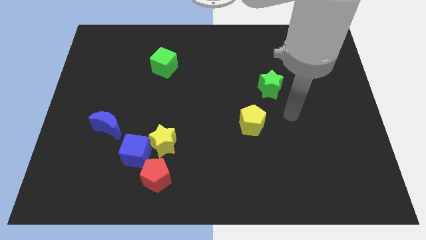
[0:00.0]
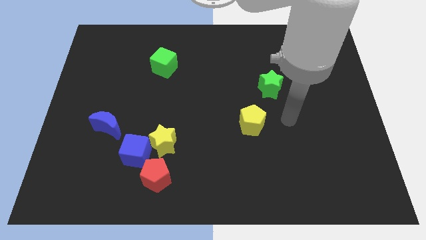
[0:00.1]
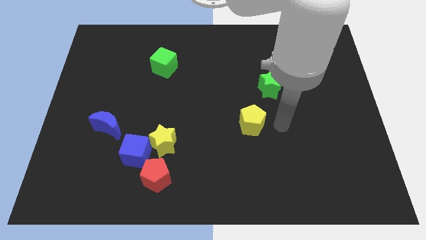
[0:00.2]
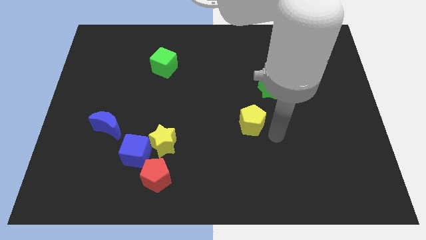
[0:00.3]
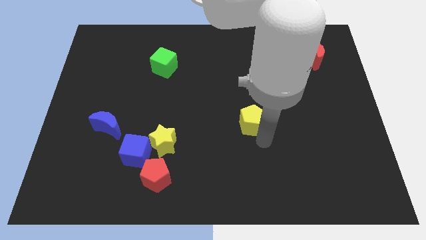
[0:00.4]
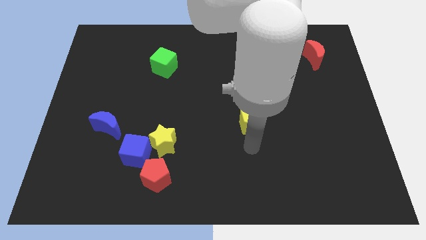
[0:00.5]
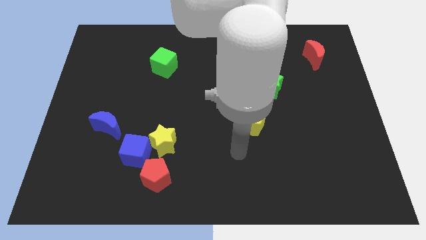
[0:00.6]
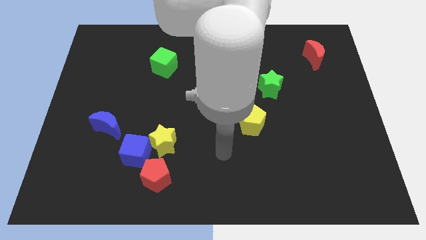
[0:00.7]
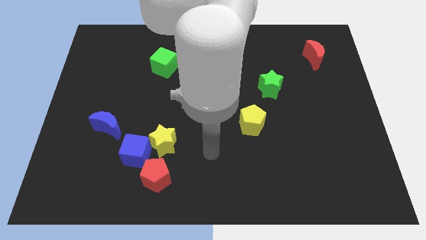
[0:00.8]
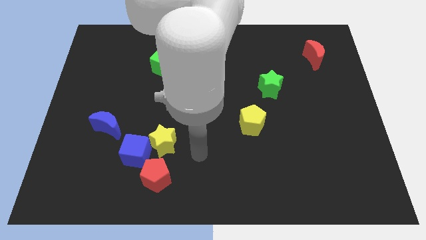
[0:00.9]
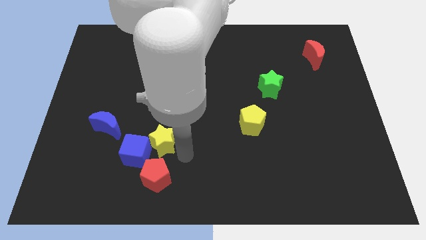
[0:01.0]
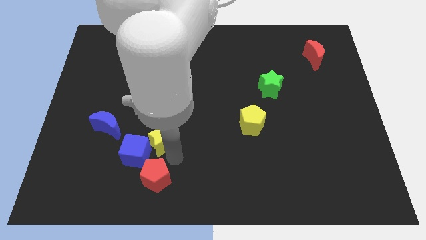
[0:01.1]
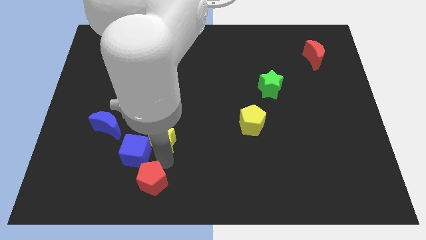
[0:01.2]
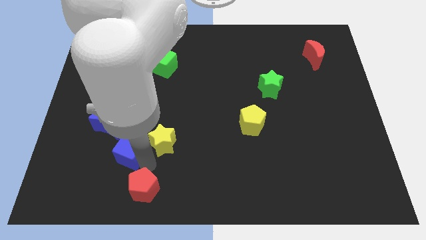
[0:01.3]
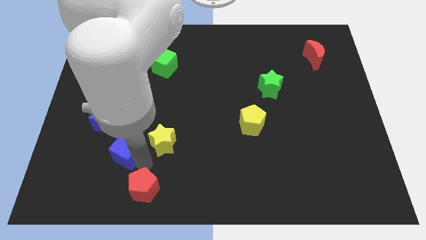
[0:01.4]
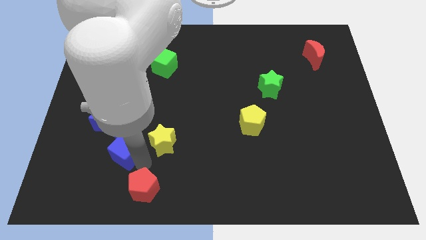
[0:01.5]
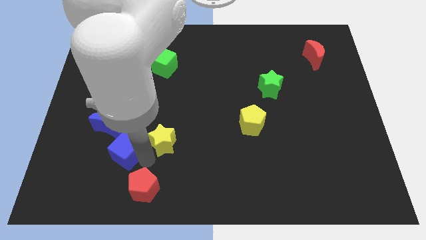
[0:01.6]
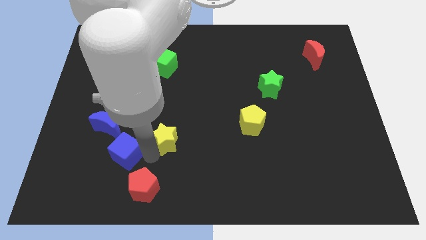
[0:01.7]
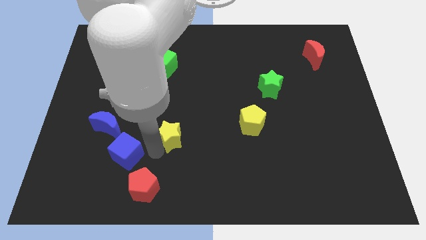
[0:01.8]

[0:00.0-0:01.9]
separate the yellow star from the blue cube and red pentagon

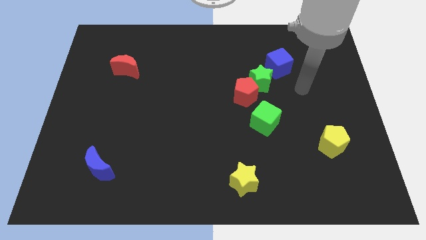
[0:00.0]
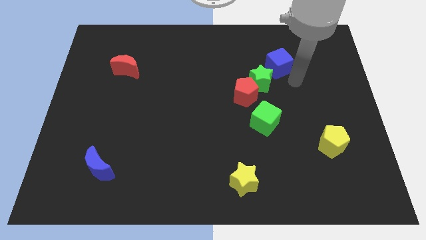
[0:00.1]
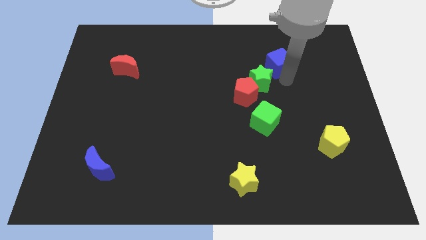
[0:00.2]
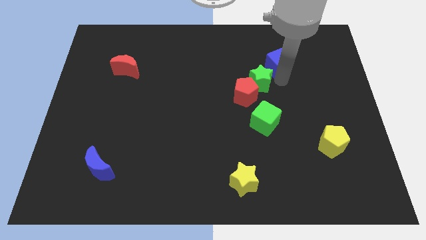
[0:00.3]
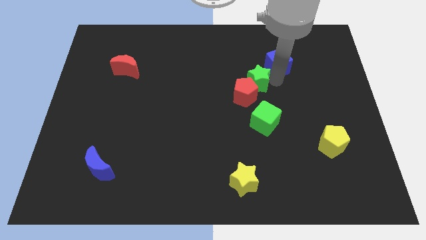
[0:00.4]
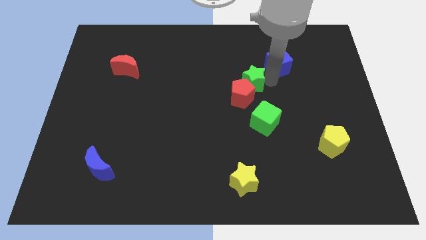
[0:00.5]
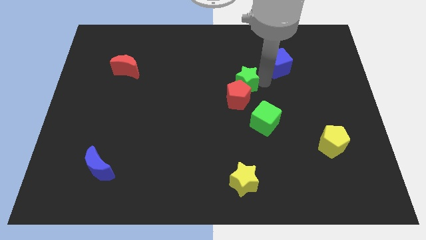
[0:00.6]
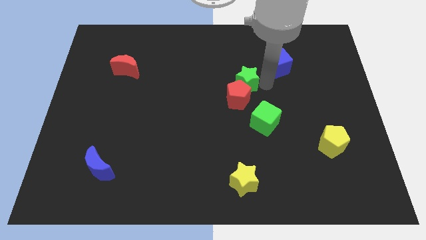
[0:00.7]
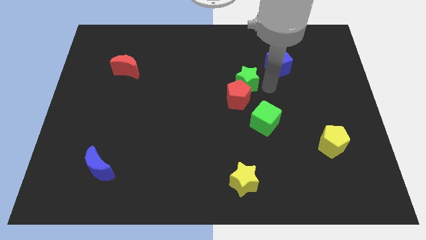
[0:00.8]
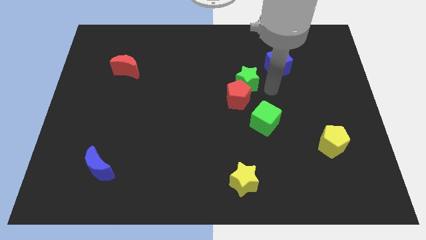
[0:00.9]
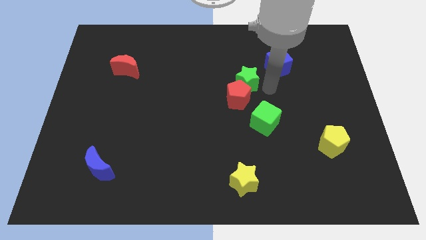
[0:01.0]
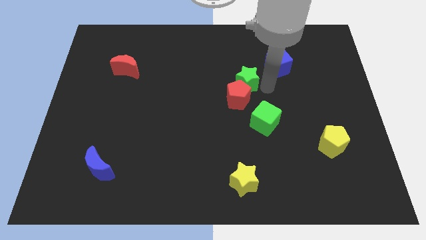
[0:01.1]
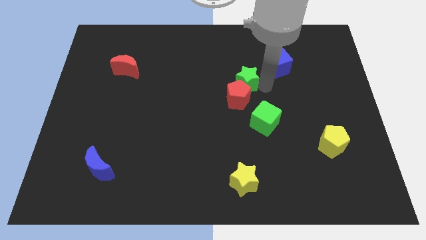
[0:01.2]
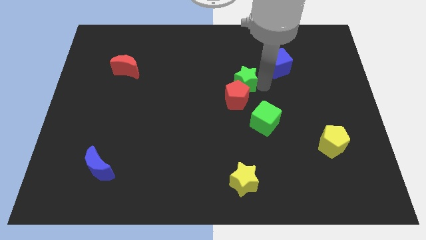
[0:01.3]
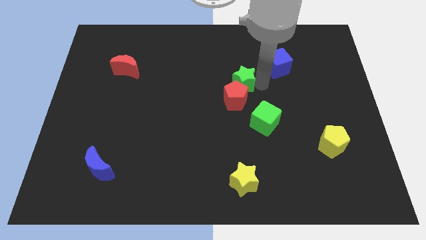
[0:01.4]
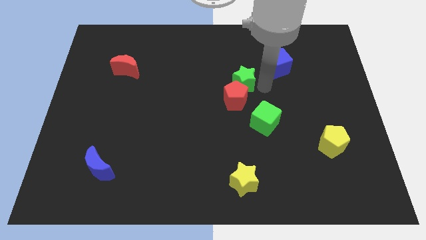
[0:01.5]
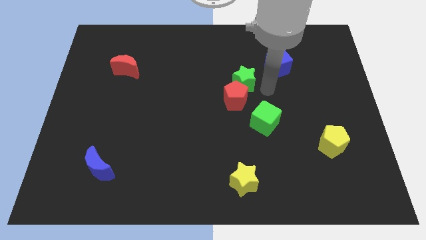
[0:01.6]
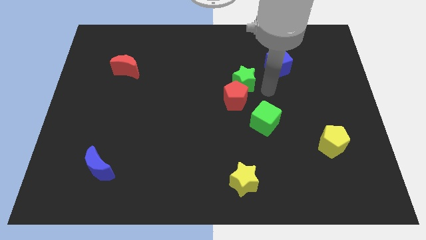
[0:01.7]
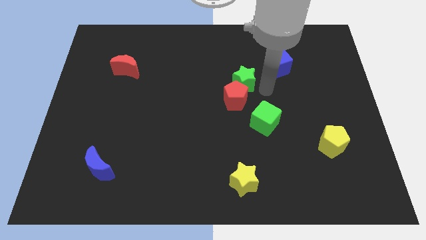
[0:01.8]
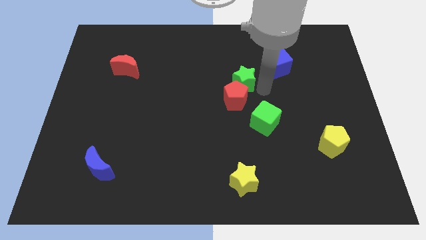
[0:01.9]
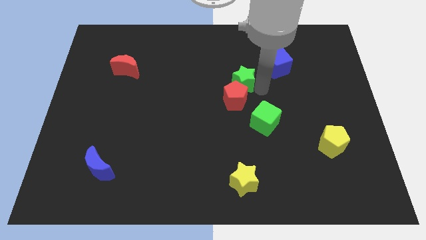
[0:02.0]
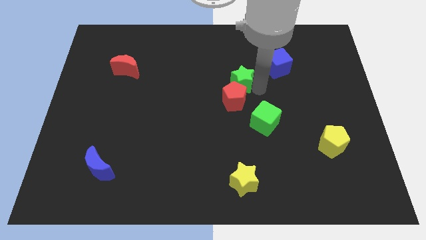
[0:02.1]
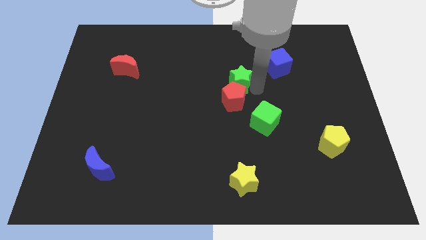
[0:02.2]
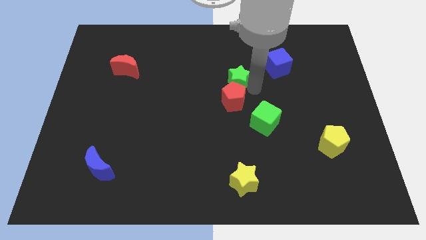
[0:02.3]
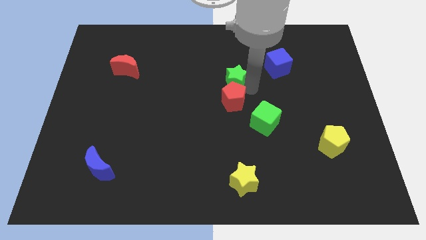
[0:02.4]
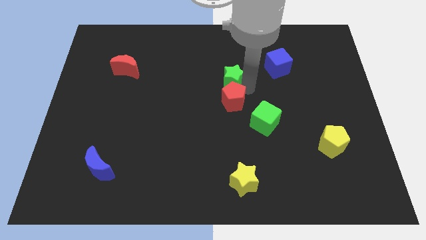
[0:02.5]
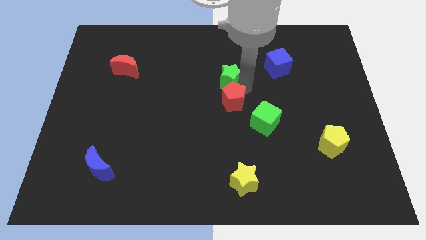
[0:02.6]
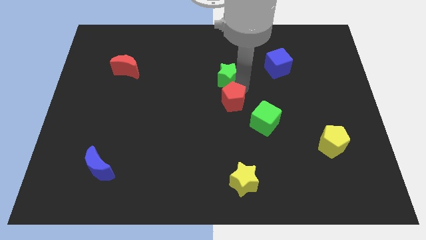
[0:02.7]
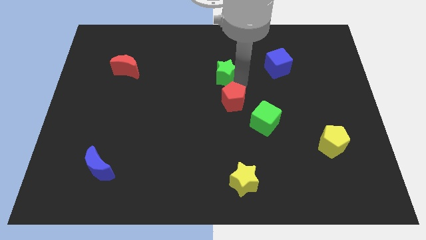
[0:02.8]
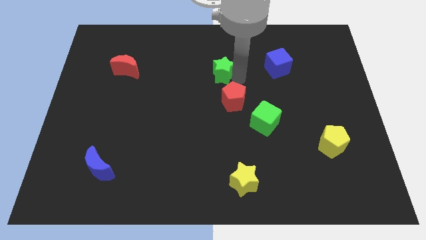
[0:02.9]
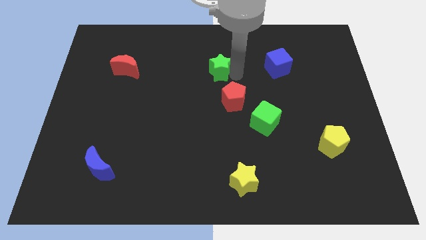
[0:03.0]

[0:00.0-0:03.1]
pull the green star apart from the red pentagon and blue cube

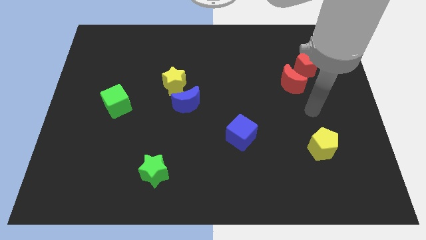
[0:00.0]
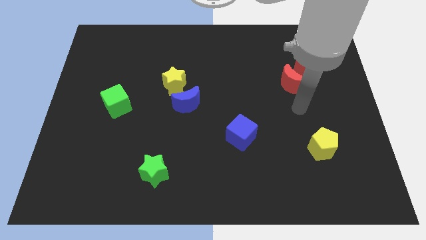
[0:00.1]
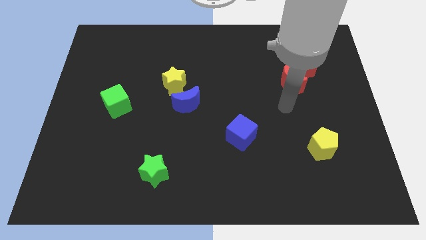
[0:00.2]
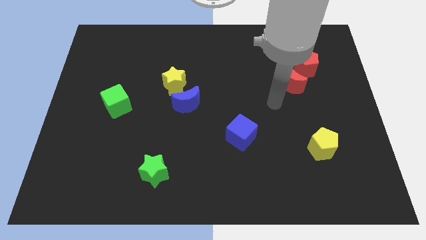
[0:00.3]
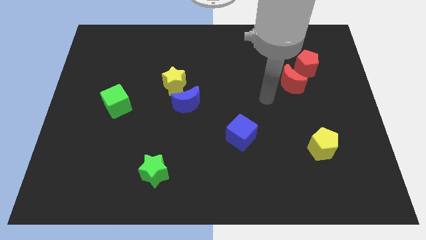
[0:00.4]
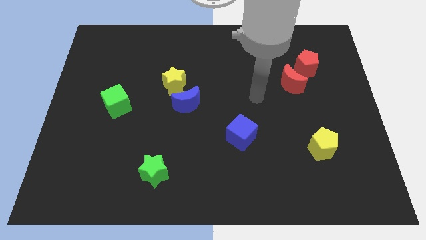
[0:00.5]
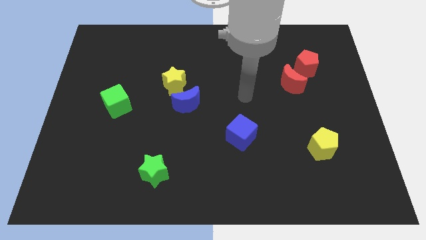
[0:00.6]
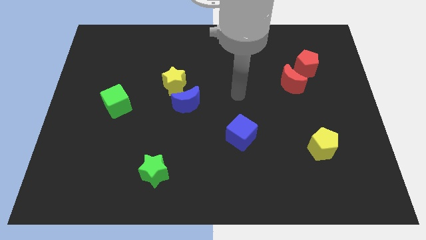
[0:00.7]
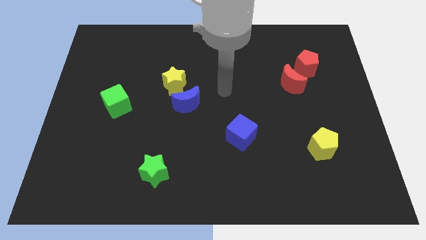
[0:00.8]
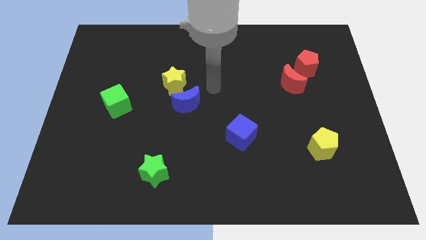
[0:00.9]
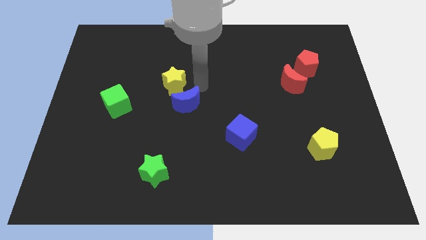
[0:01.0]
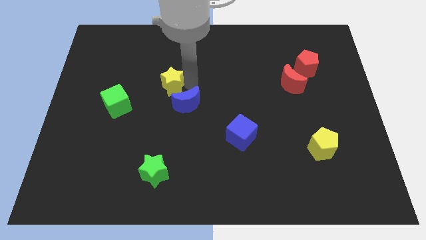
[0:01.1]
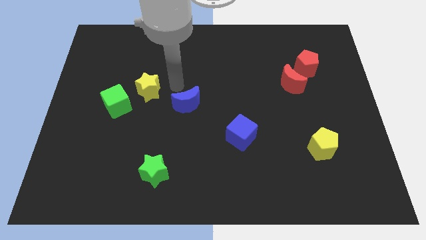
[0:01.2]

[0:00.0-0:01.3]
move the blue moon away from the yellow star

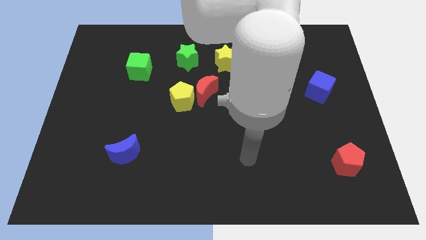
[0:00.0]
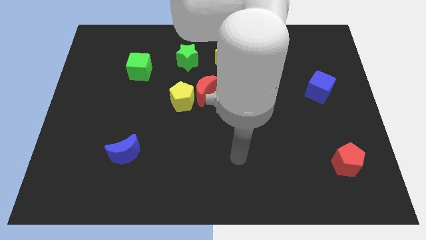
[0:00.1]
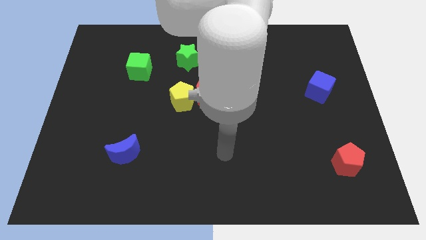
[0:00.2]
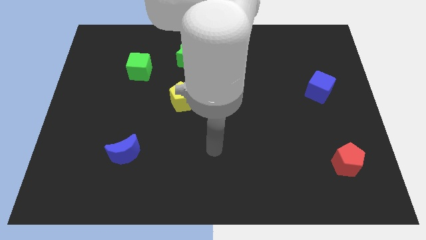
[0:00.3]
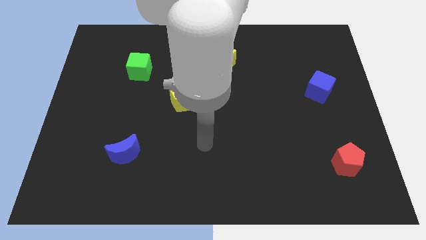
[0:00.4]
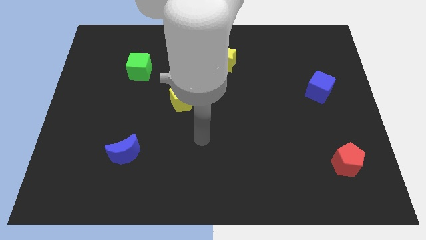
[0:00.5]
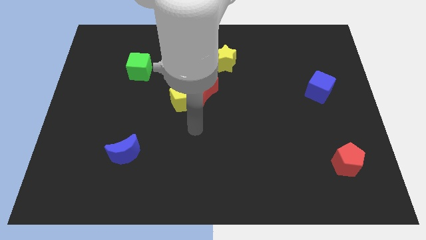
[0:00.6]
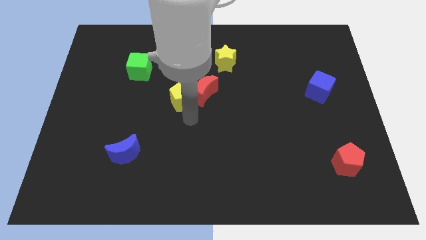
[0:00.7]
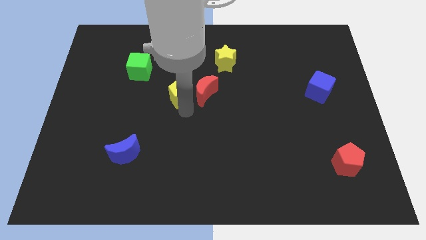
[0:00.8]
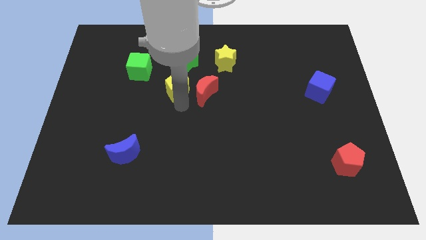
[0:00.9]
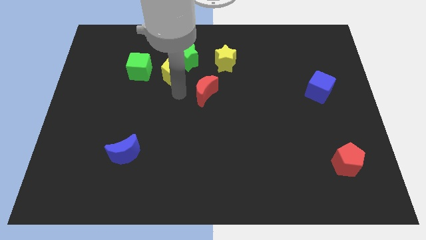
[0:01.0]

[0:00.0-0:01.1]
separate the red moon from the yellow pentagon

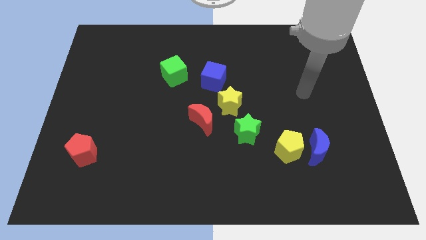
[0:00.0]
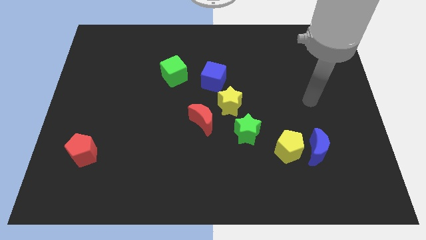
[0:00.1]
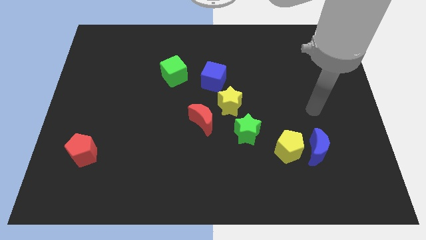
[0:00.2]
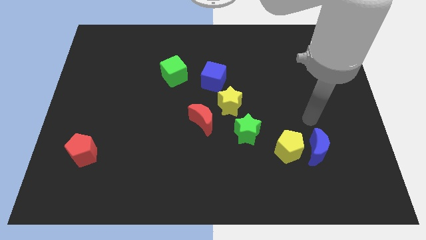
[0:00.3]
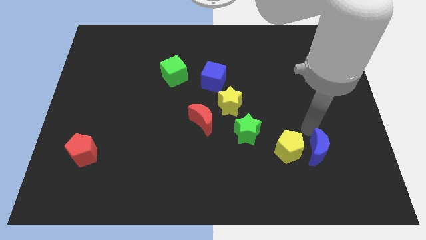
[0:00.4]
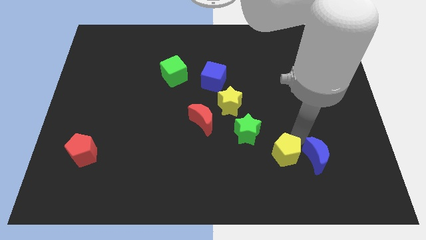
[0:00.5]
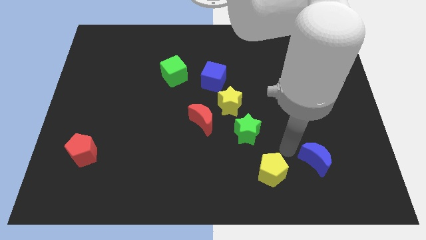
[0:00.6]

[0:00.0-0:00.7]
pull the blue moon apart from the yellow pentagon

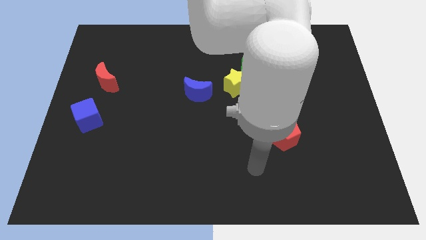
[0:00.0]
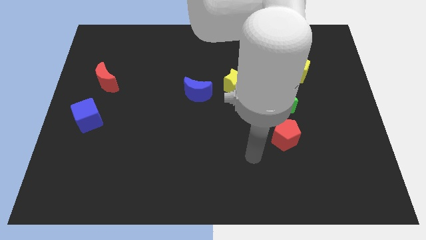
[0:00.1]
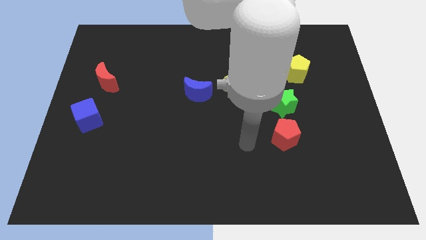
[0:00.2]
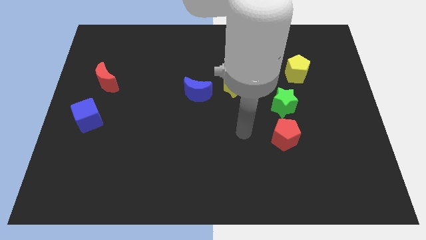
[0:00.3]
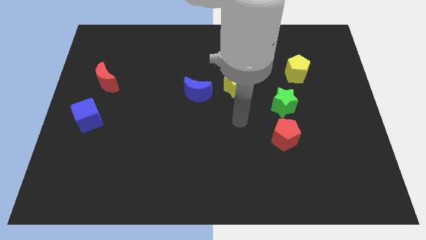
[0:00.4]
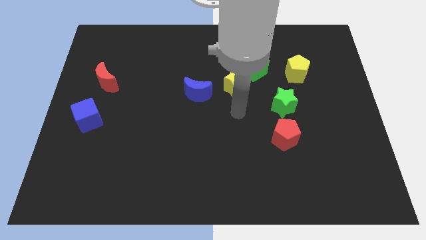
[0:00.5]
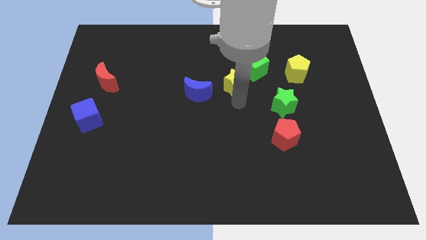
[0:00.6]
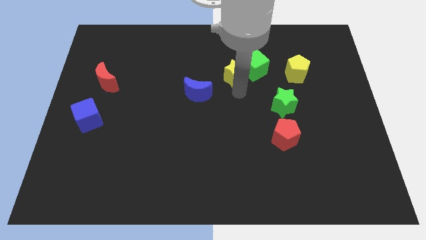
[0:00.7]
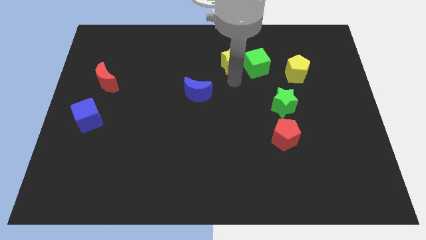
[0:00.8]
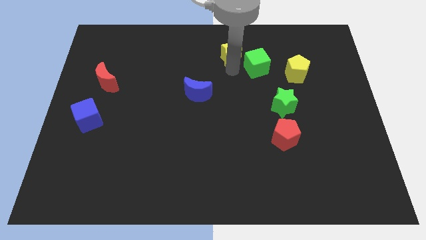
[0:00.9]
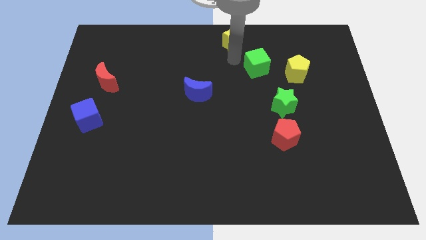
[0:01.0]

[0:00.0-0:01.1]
pull the green cube apart from the yellow star
